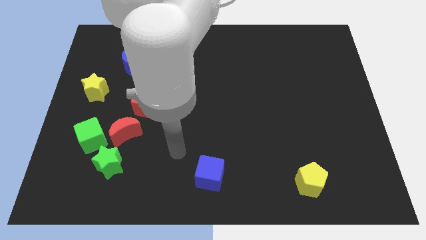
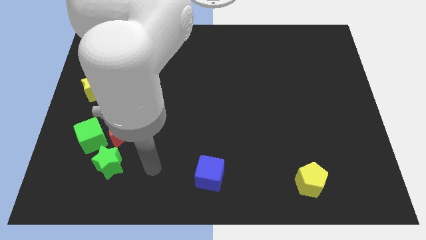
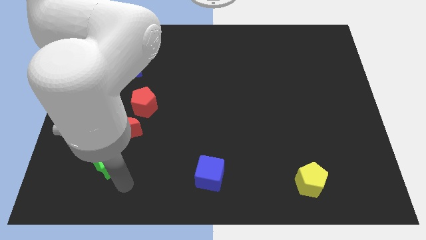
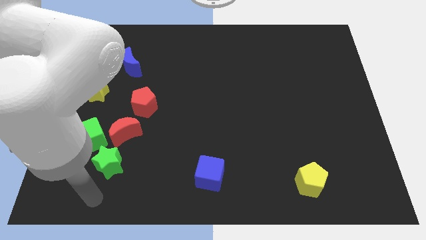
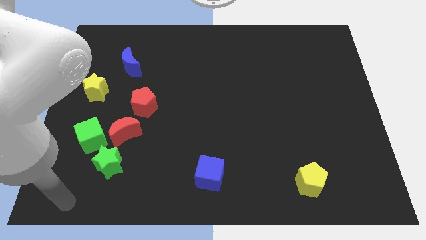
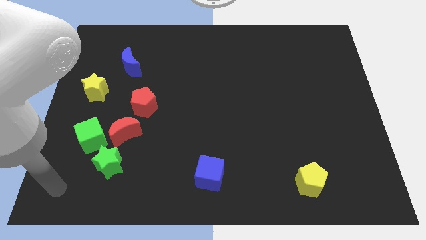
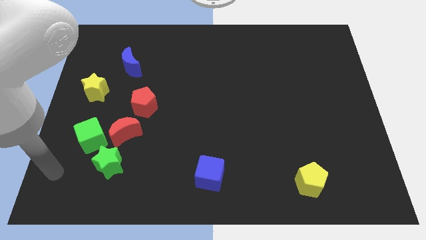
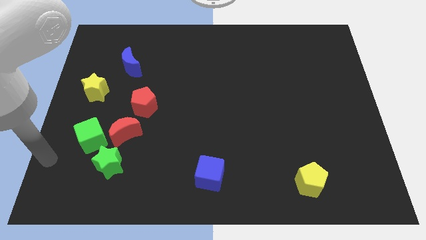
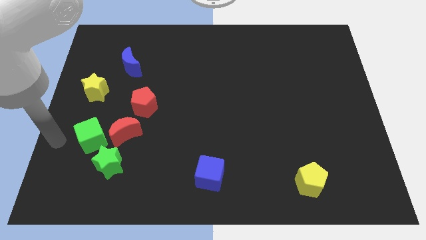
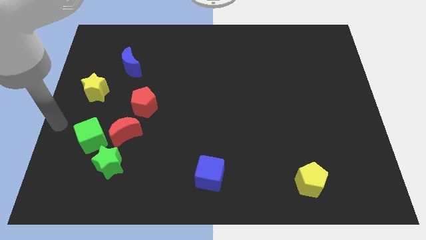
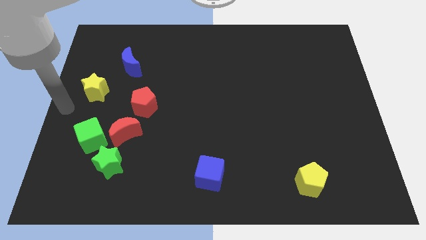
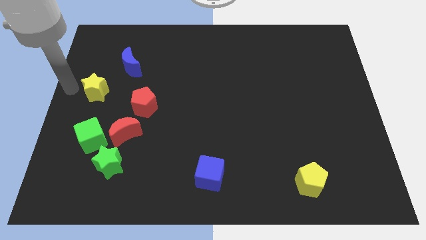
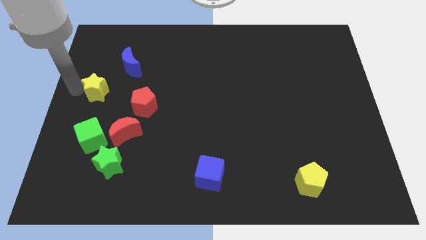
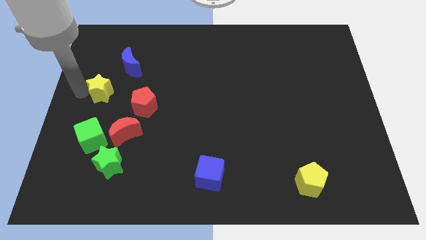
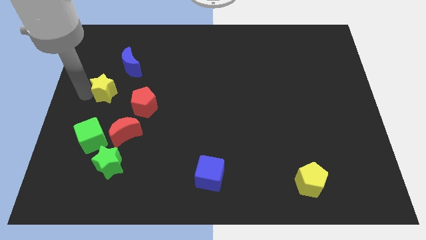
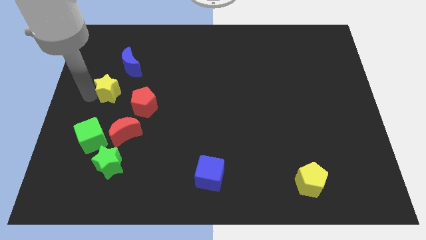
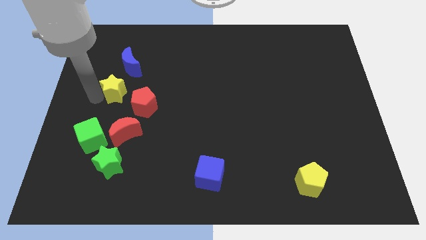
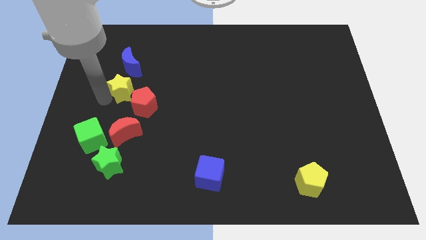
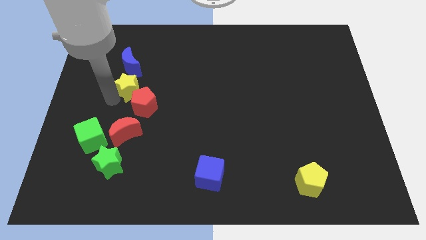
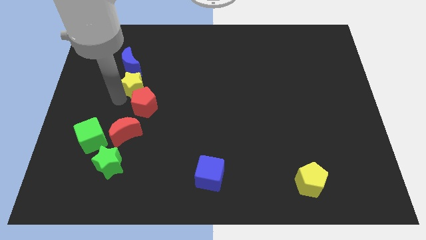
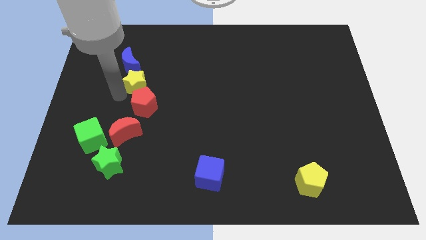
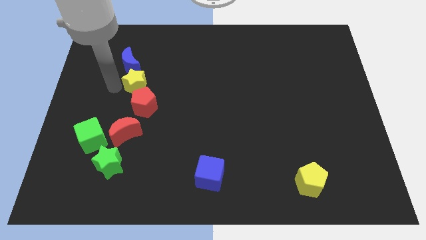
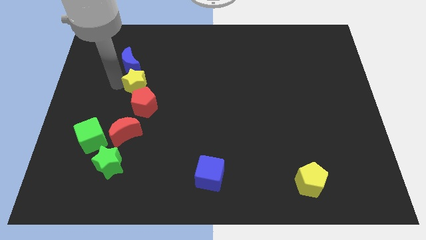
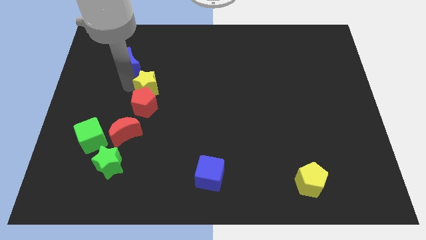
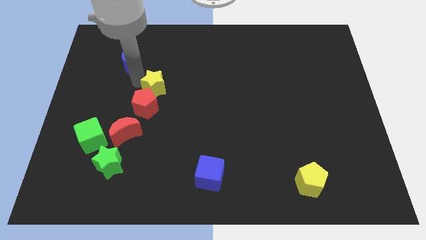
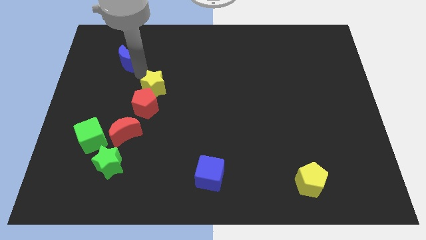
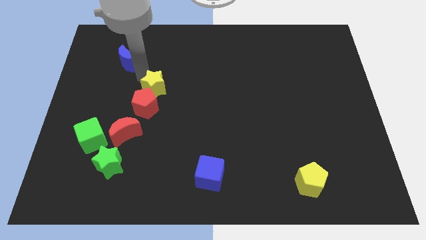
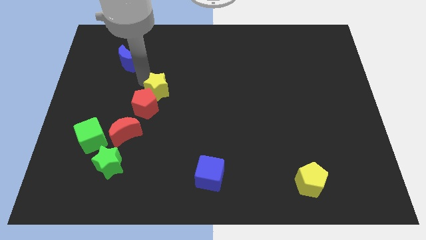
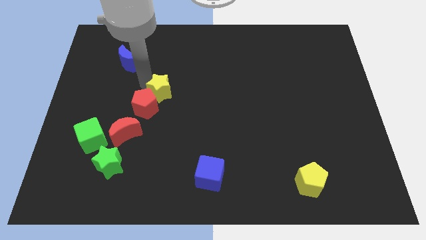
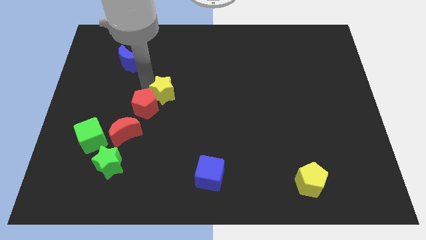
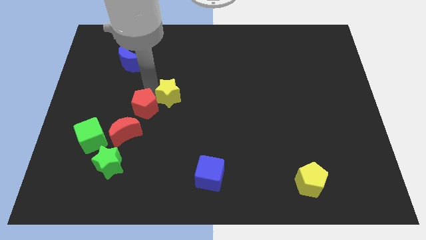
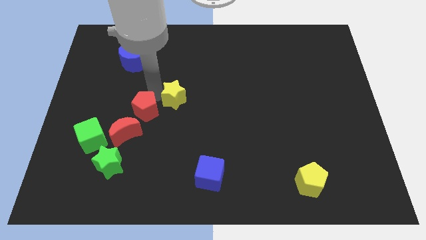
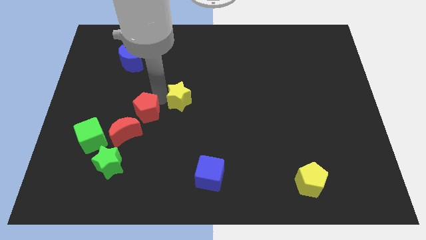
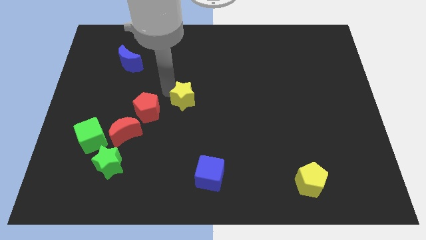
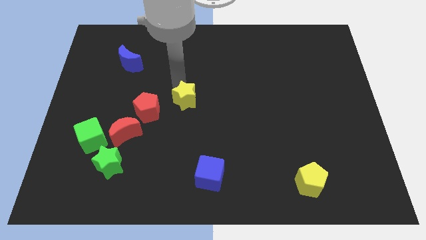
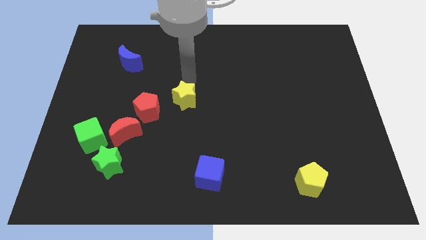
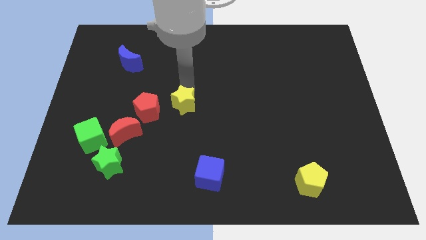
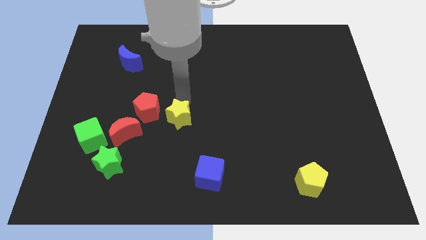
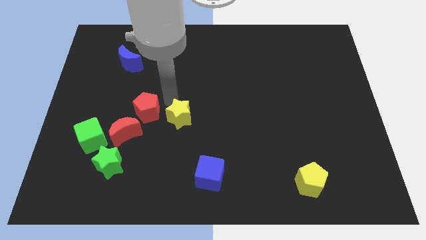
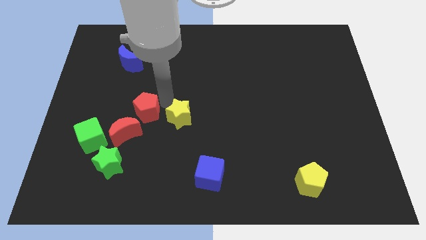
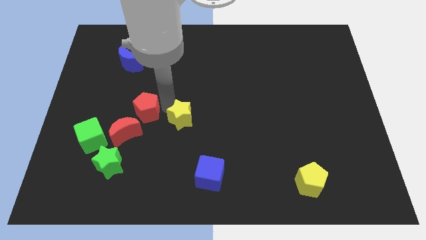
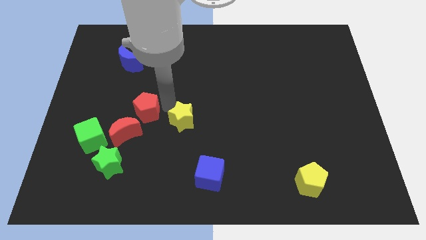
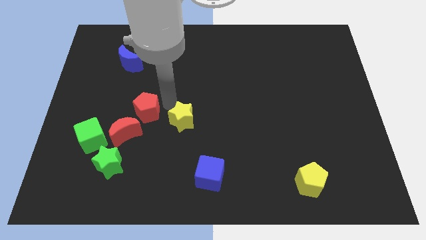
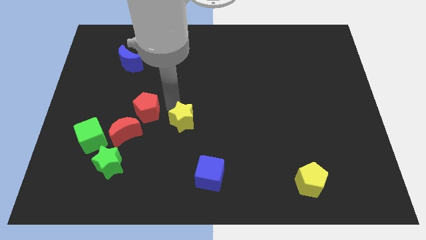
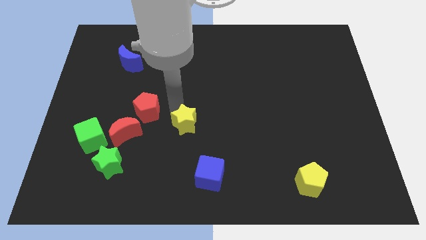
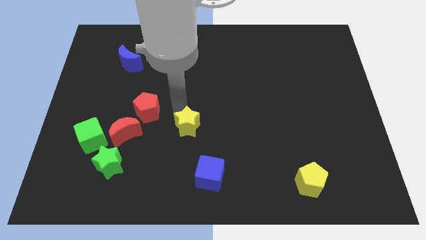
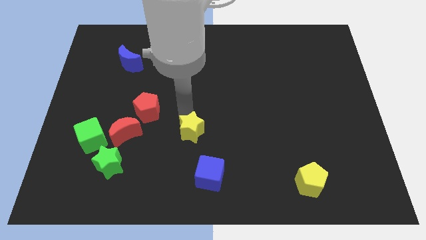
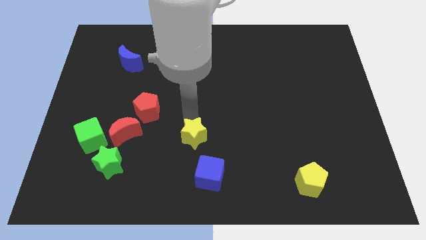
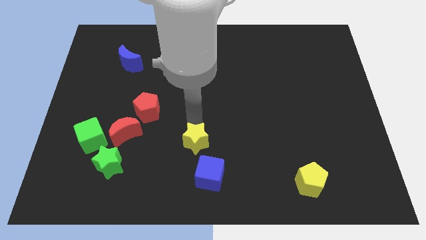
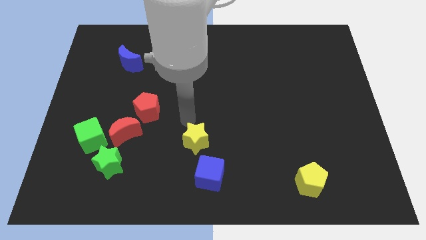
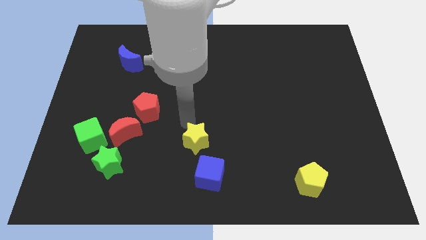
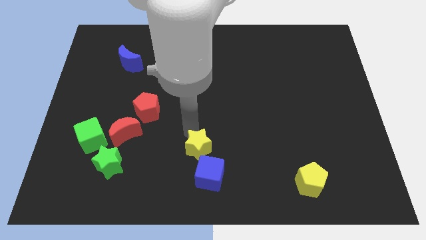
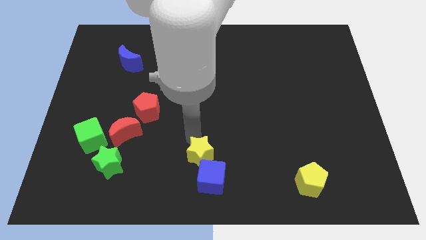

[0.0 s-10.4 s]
put the yellow star close to the blue cube

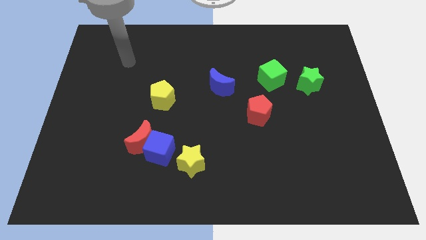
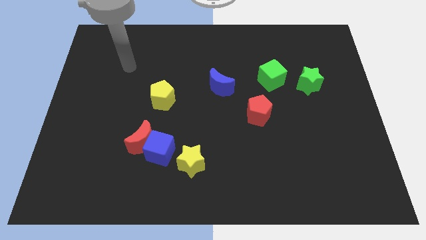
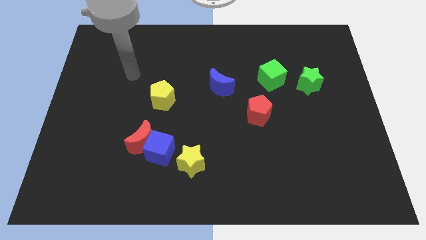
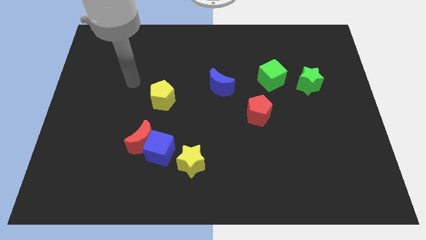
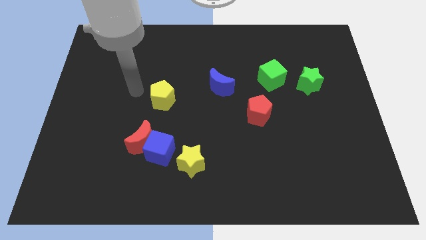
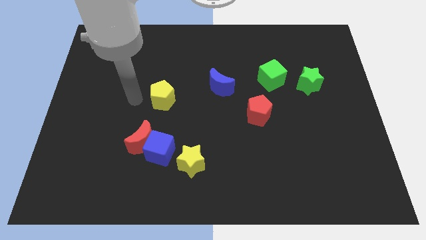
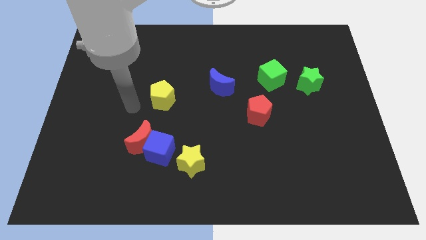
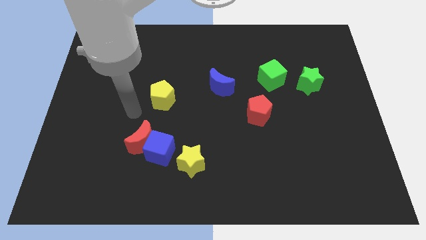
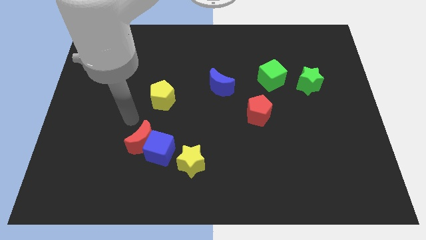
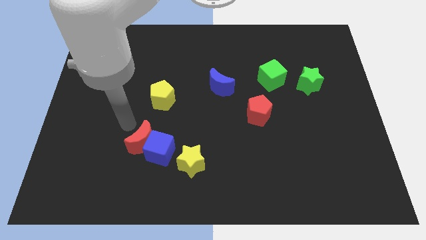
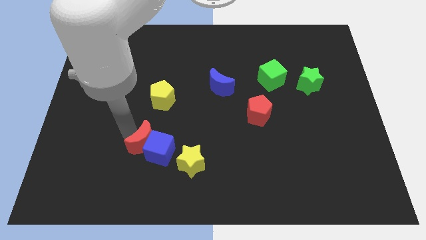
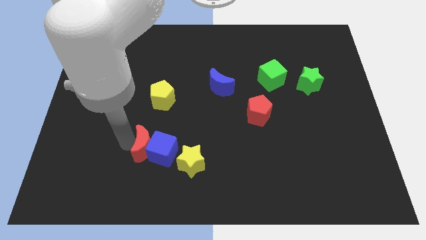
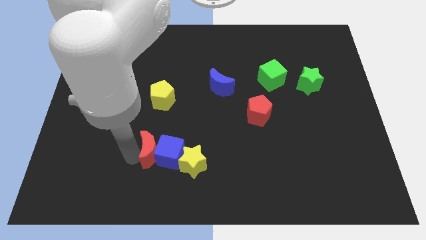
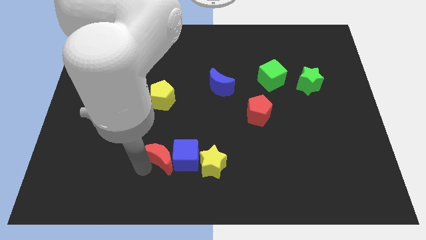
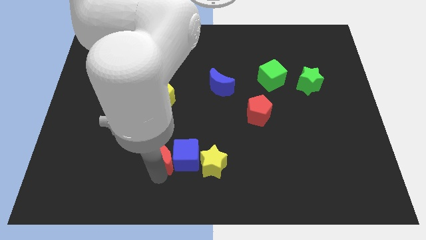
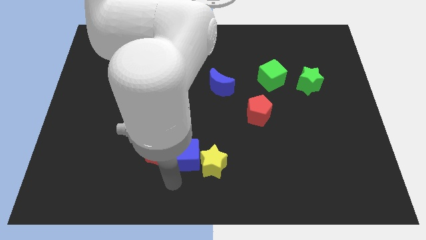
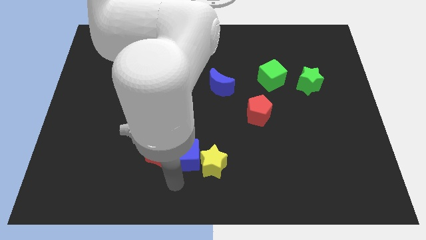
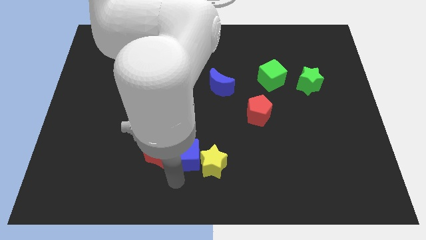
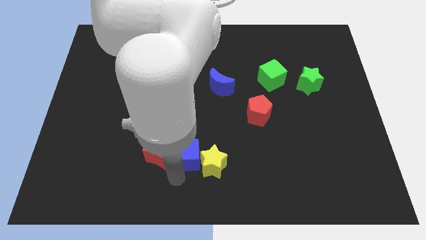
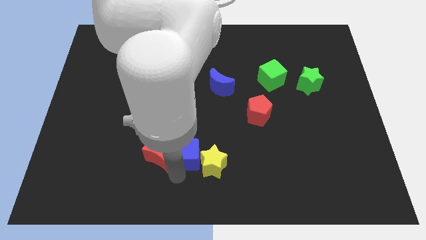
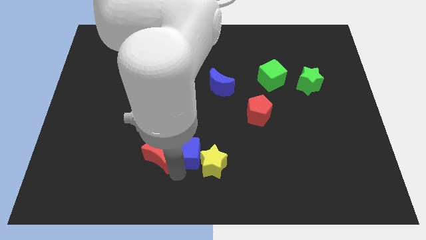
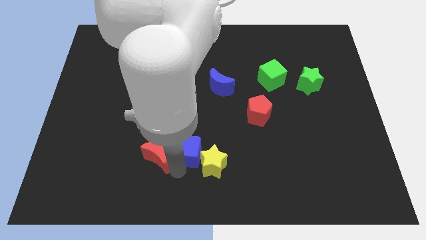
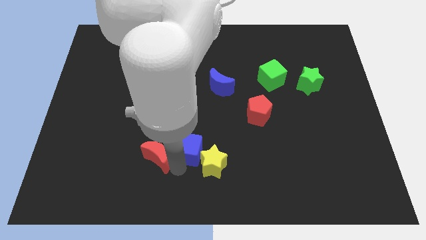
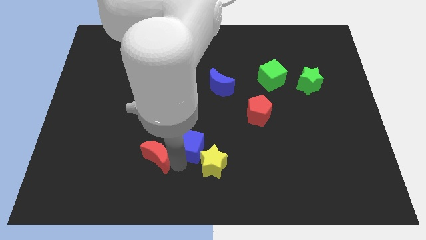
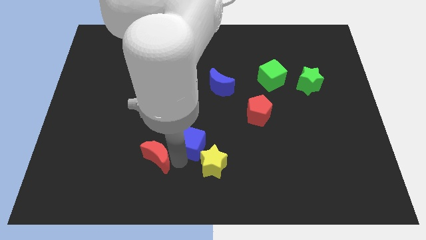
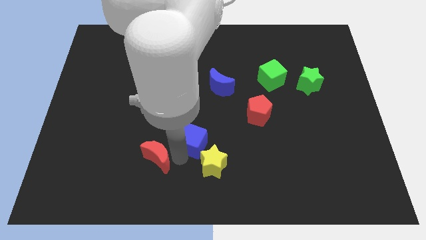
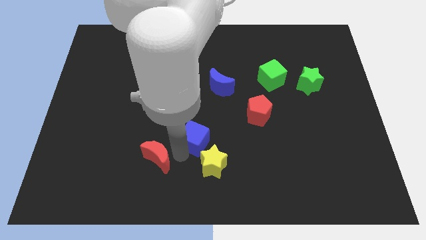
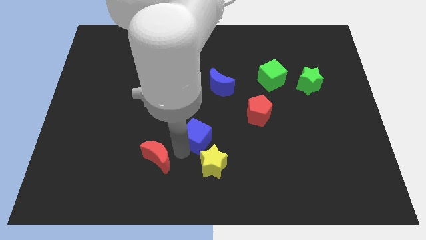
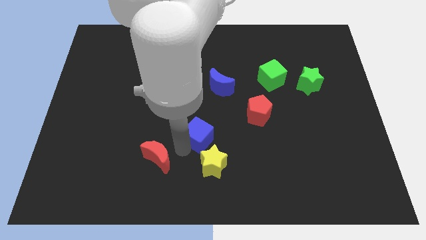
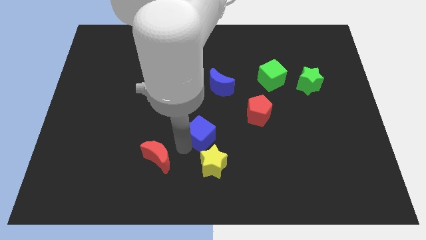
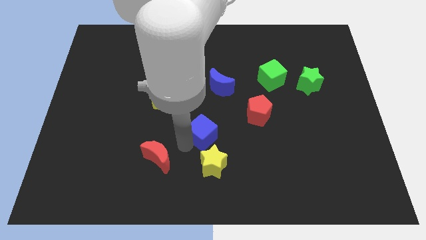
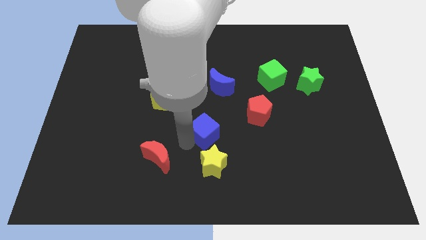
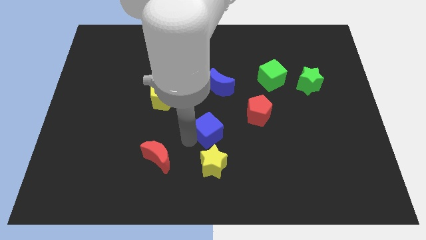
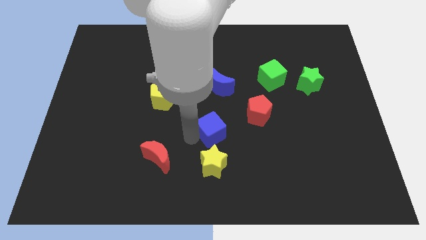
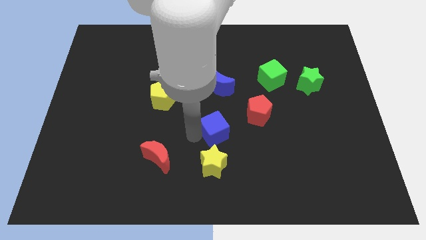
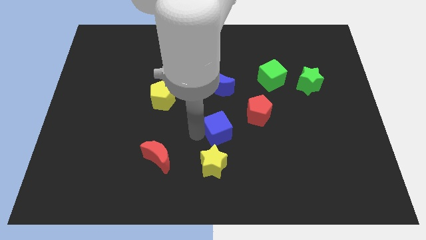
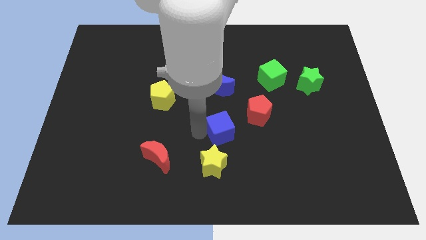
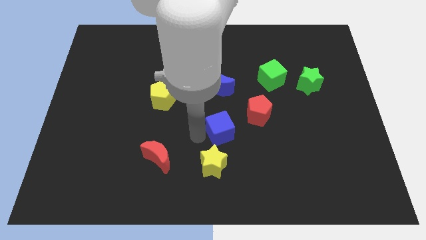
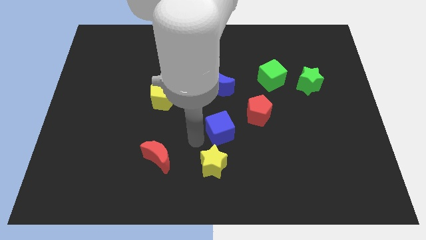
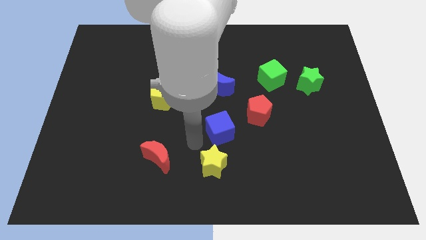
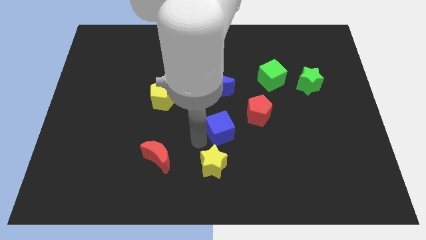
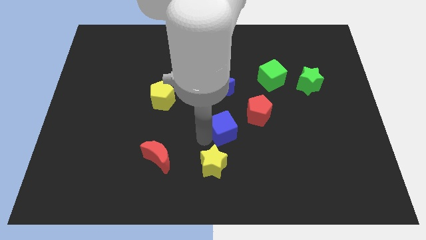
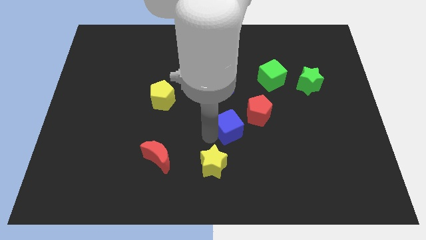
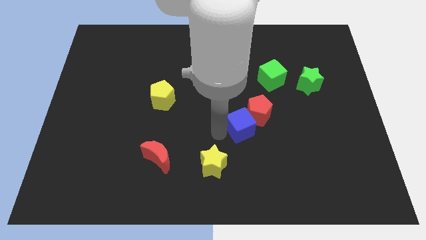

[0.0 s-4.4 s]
move the blue cube to the red pentagon
